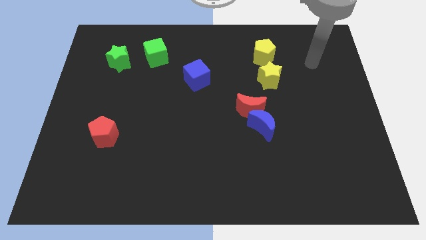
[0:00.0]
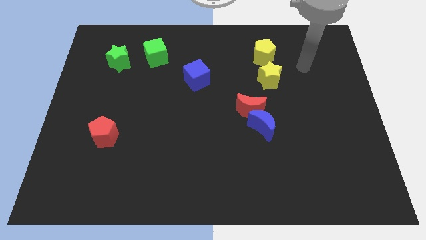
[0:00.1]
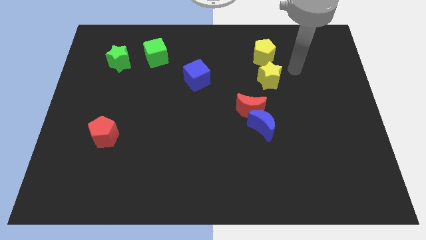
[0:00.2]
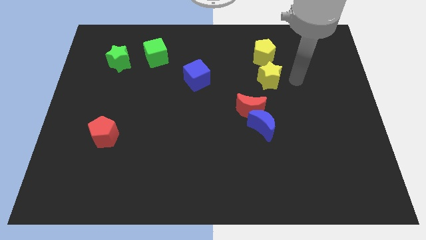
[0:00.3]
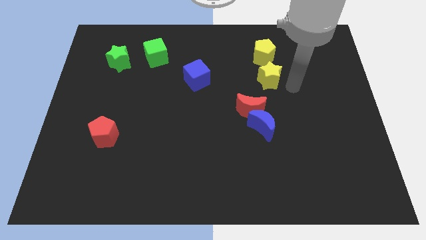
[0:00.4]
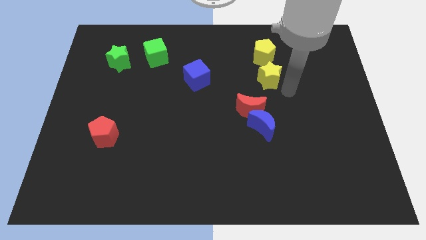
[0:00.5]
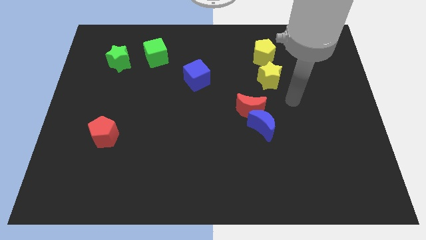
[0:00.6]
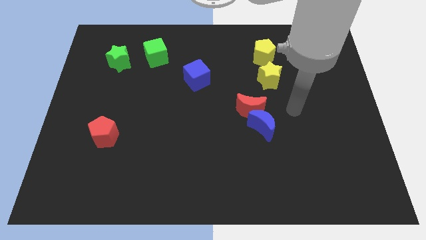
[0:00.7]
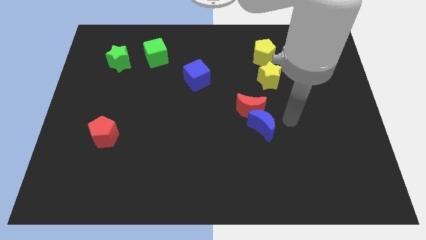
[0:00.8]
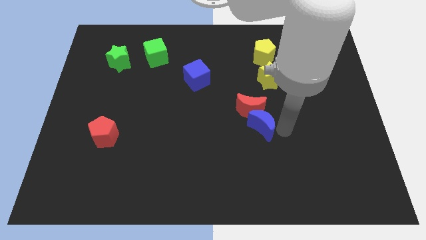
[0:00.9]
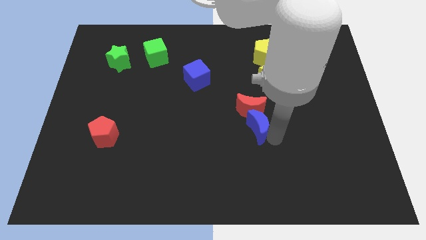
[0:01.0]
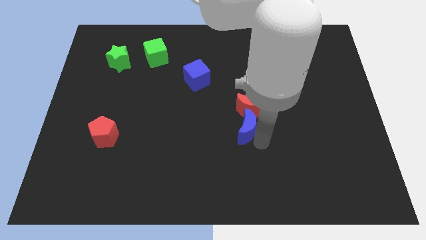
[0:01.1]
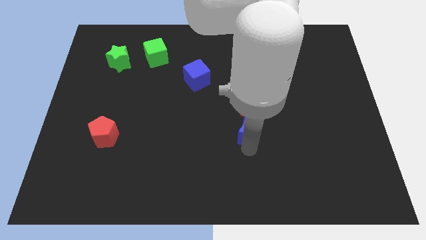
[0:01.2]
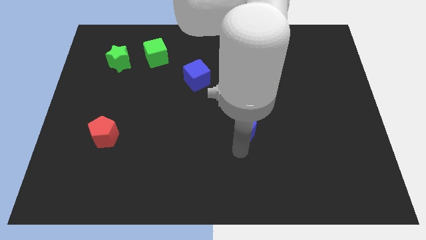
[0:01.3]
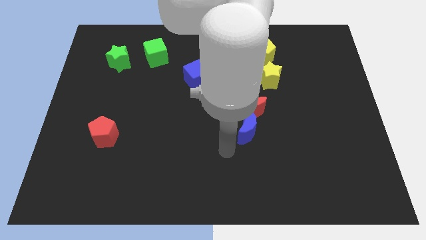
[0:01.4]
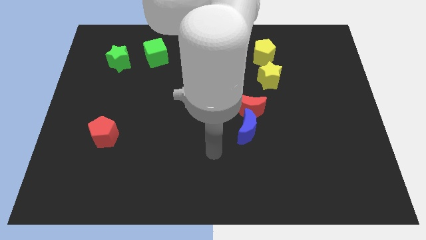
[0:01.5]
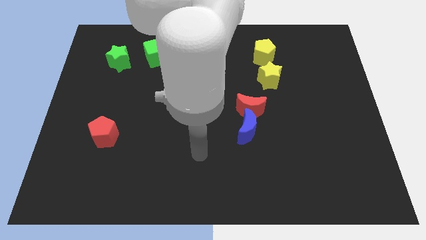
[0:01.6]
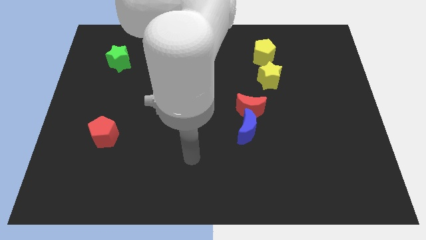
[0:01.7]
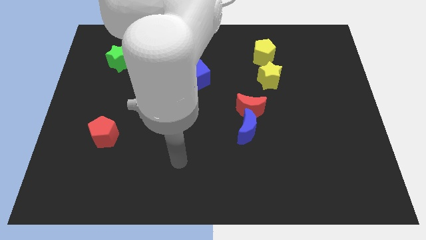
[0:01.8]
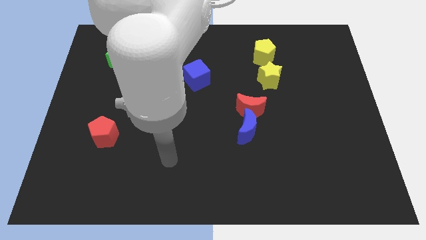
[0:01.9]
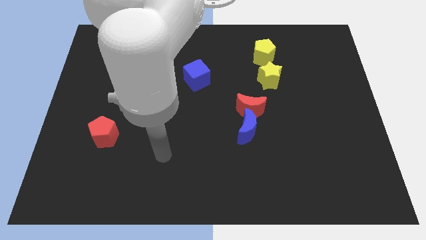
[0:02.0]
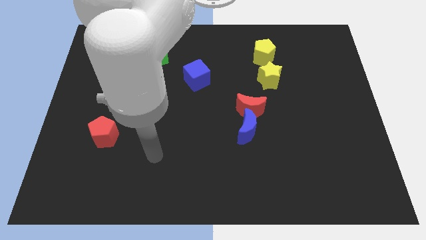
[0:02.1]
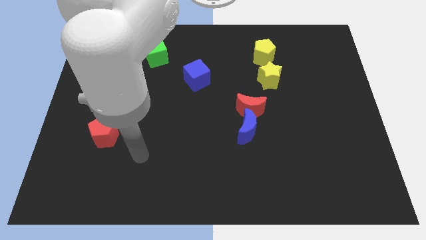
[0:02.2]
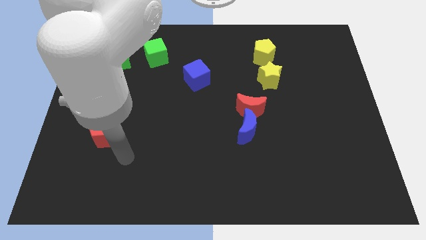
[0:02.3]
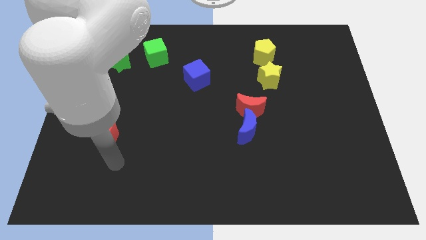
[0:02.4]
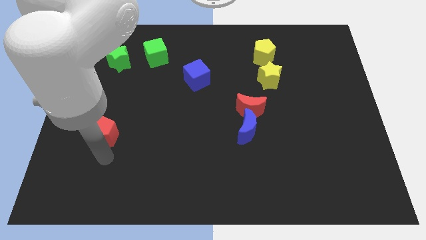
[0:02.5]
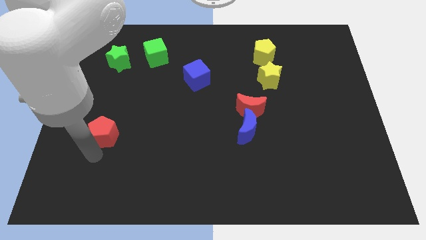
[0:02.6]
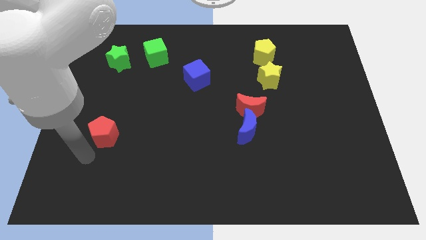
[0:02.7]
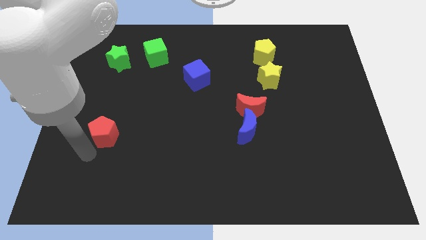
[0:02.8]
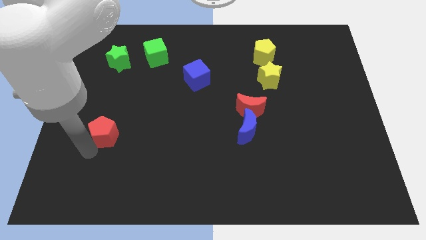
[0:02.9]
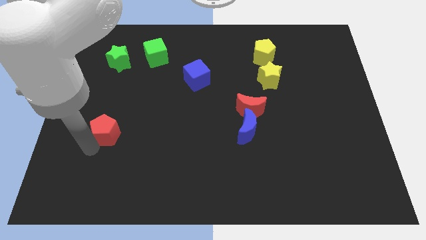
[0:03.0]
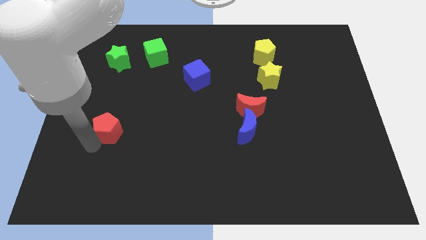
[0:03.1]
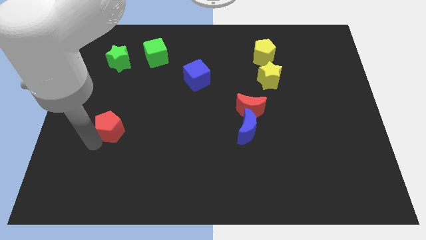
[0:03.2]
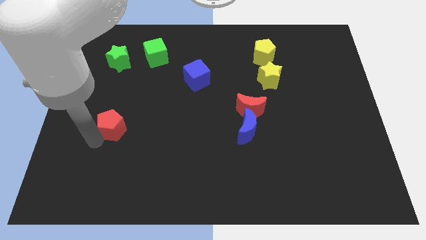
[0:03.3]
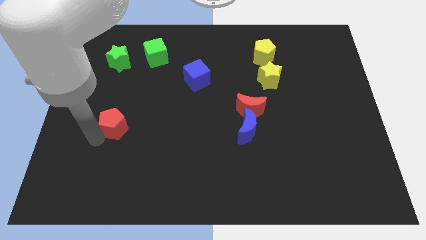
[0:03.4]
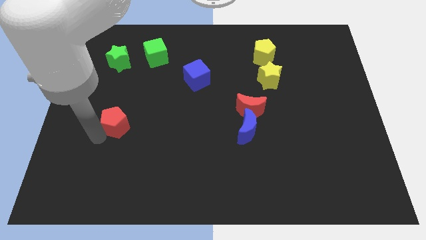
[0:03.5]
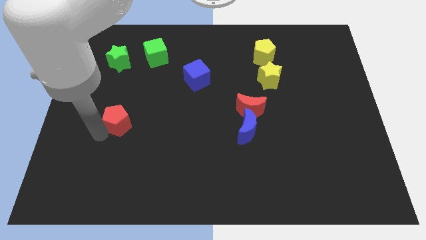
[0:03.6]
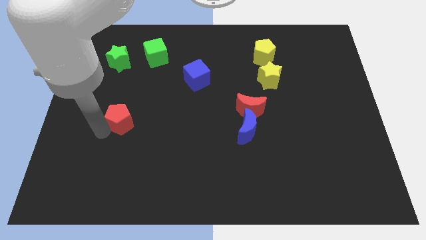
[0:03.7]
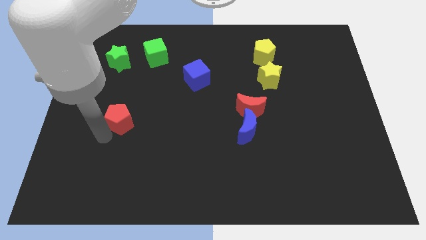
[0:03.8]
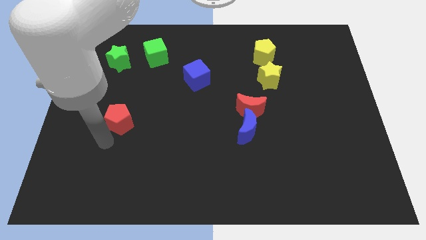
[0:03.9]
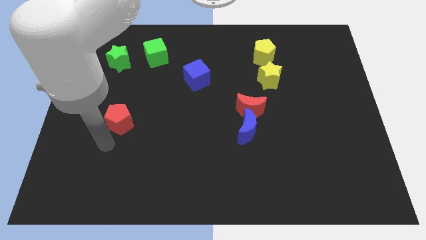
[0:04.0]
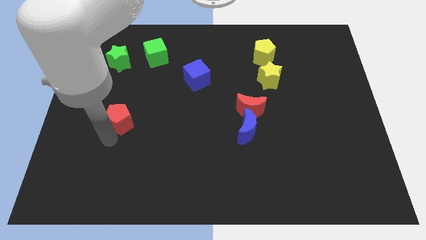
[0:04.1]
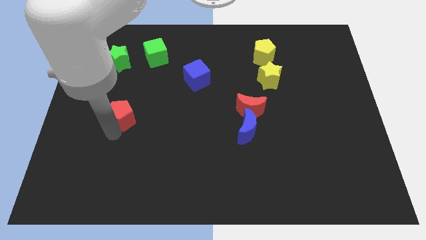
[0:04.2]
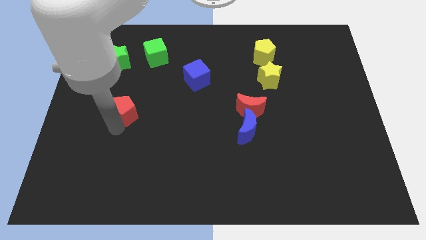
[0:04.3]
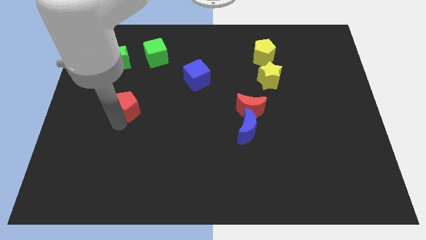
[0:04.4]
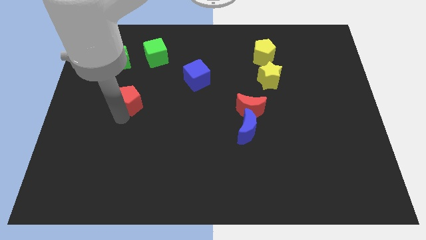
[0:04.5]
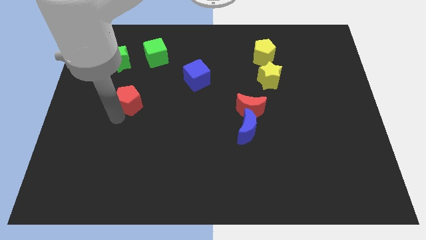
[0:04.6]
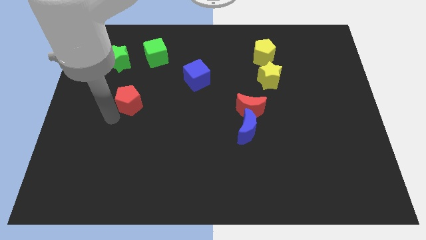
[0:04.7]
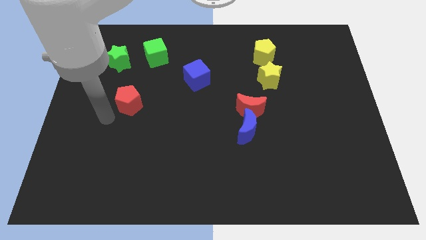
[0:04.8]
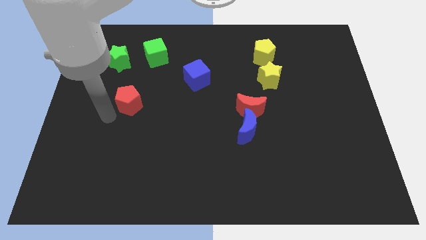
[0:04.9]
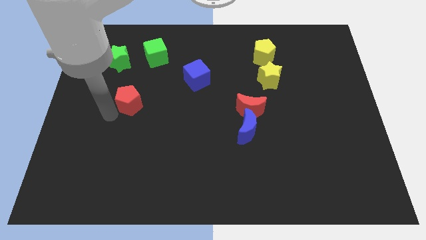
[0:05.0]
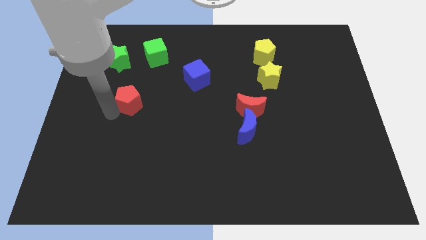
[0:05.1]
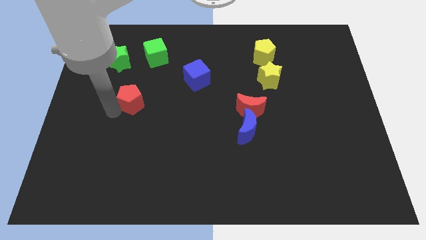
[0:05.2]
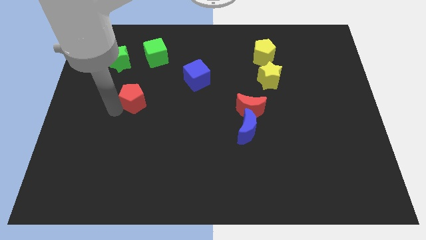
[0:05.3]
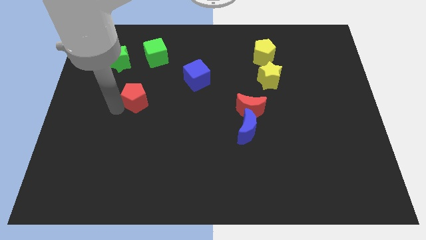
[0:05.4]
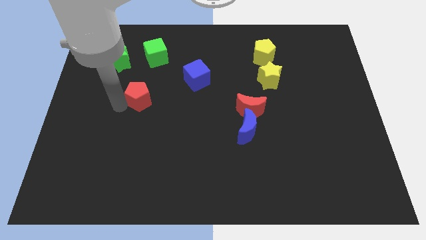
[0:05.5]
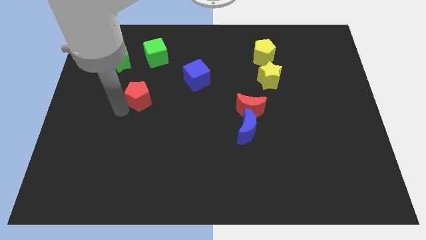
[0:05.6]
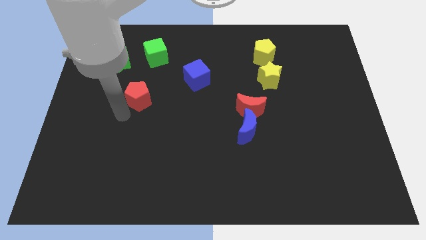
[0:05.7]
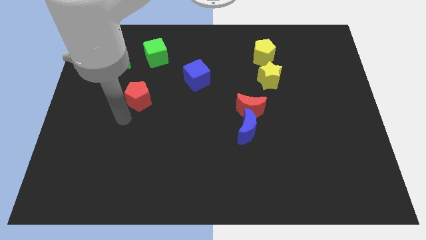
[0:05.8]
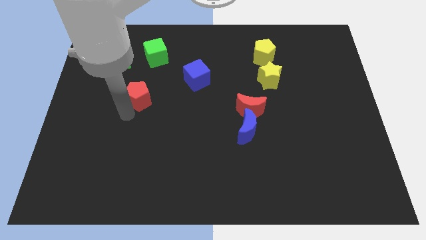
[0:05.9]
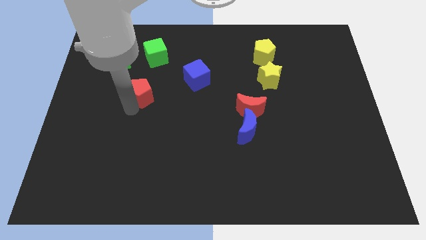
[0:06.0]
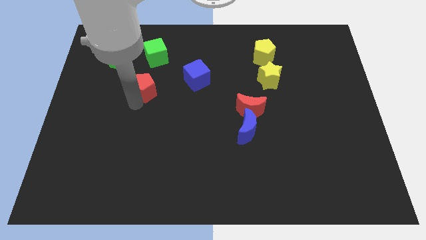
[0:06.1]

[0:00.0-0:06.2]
move the red pentagon to the left side of the blue cube

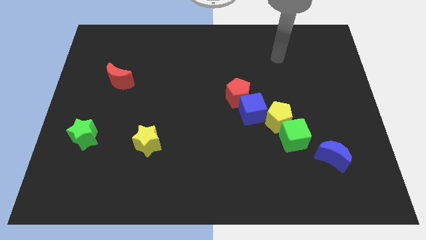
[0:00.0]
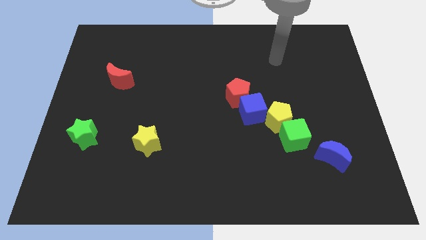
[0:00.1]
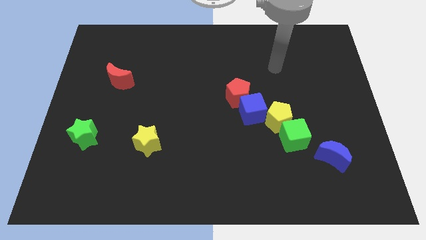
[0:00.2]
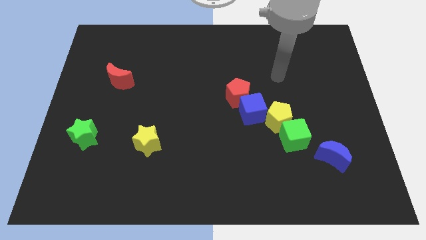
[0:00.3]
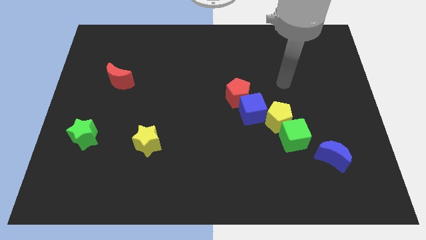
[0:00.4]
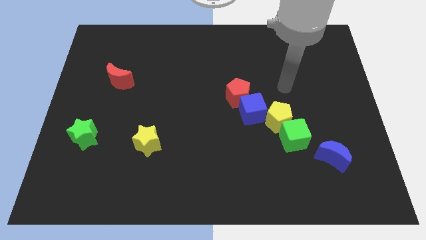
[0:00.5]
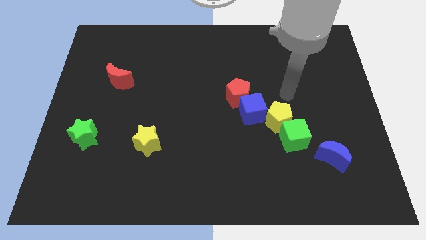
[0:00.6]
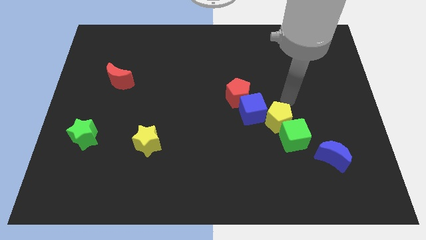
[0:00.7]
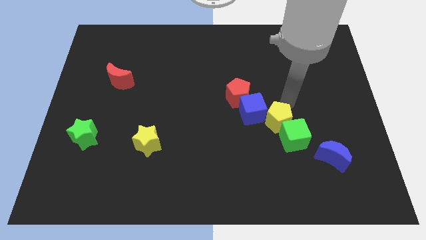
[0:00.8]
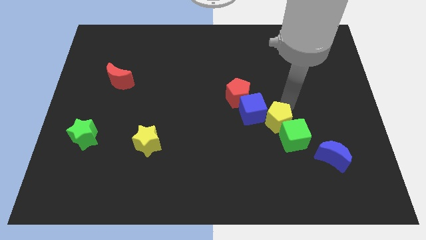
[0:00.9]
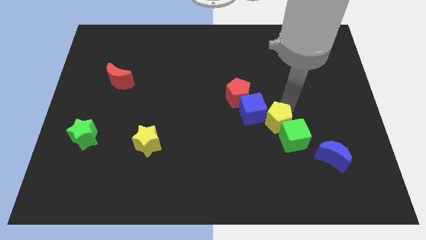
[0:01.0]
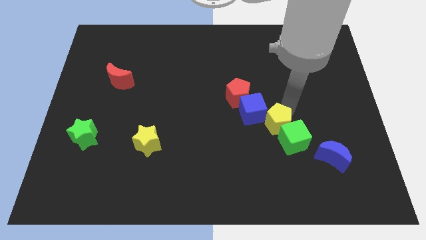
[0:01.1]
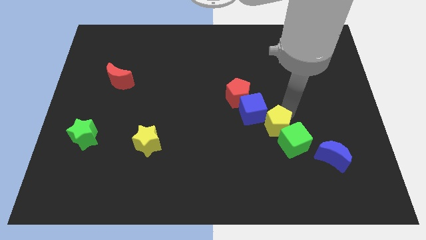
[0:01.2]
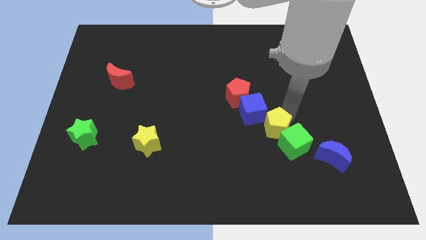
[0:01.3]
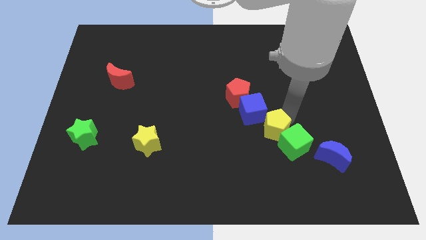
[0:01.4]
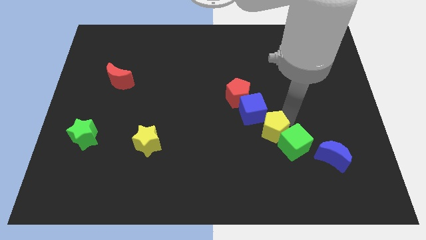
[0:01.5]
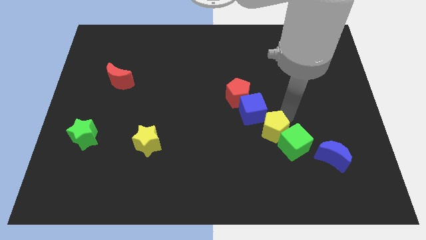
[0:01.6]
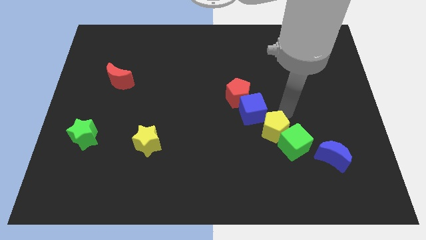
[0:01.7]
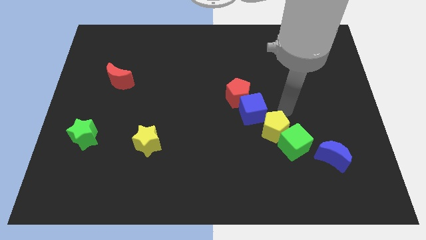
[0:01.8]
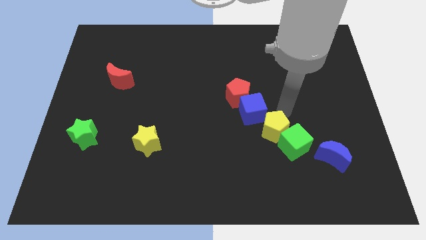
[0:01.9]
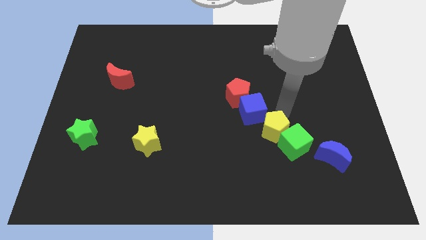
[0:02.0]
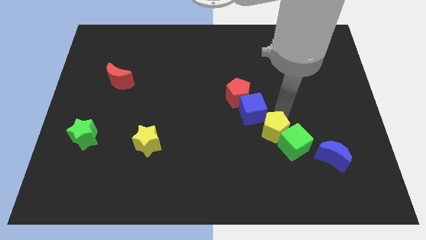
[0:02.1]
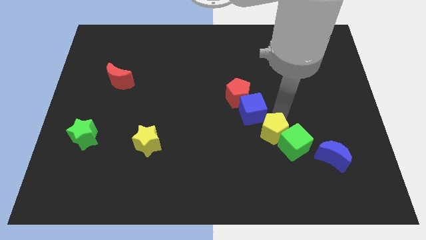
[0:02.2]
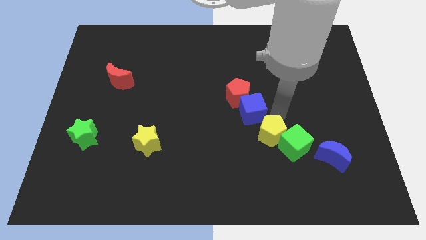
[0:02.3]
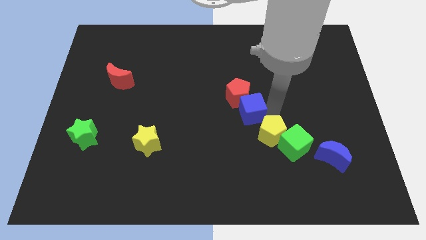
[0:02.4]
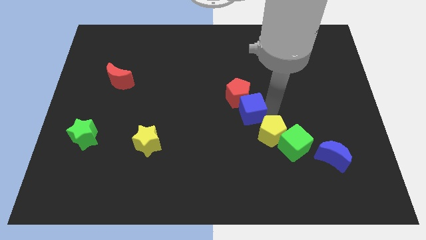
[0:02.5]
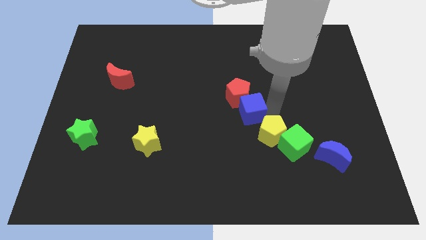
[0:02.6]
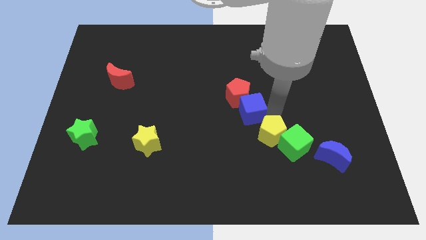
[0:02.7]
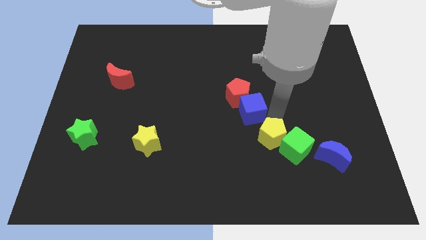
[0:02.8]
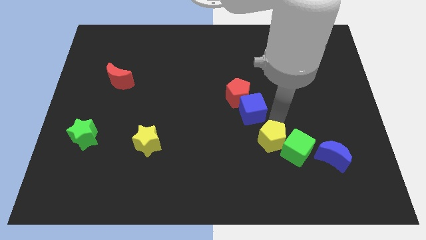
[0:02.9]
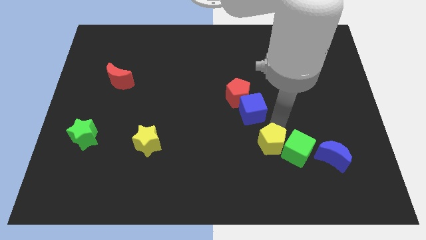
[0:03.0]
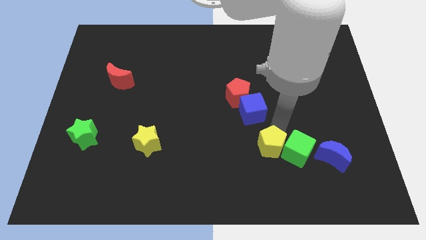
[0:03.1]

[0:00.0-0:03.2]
move the yellow pentagon diagonally down and to the left of the green cube
